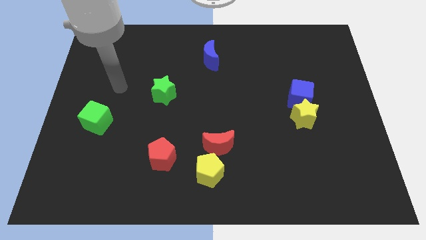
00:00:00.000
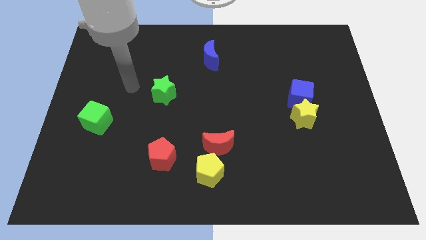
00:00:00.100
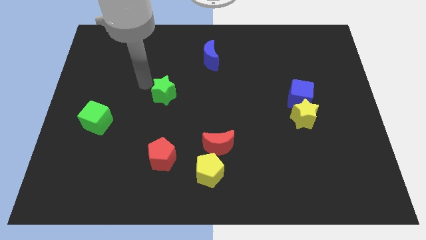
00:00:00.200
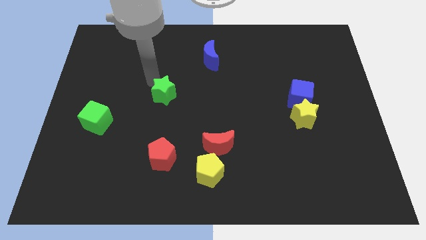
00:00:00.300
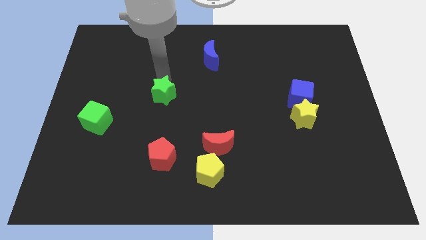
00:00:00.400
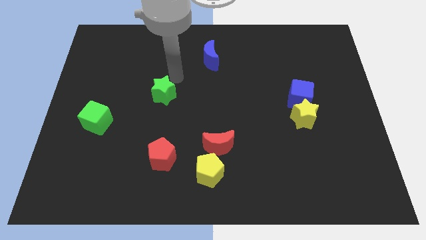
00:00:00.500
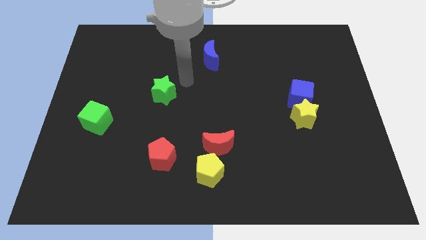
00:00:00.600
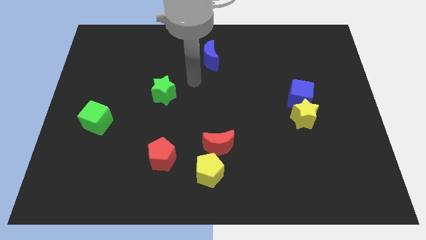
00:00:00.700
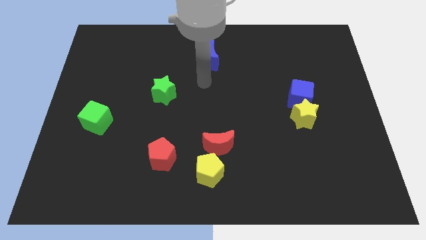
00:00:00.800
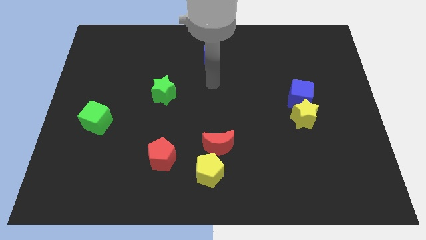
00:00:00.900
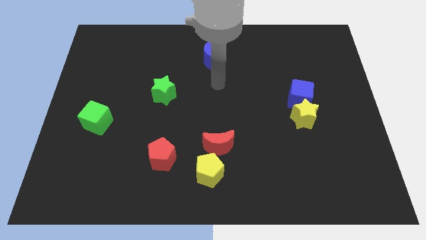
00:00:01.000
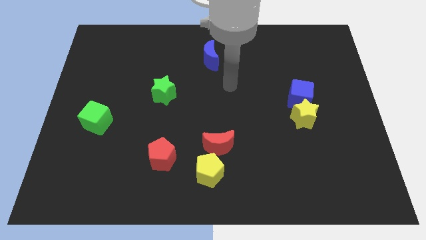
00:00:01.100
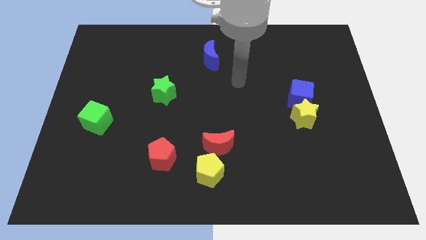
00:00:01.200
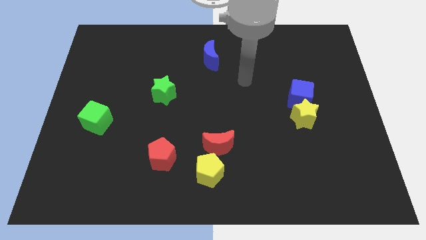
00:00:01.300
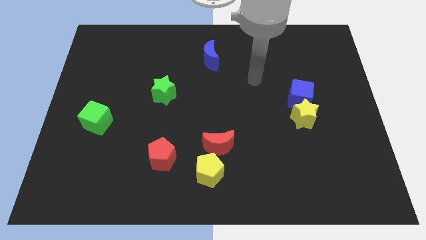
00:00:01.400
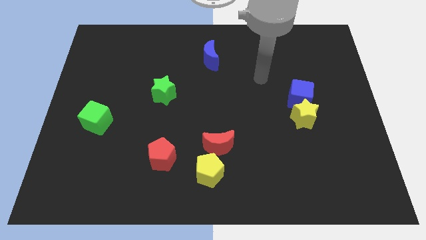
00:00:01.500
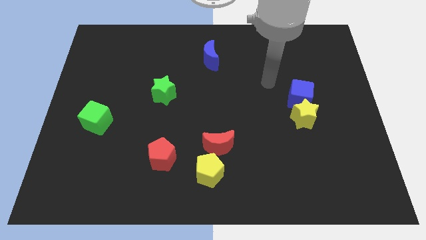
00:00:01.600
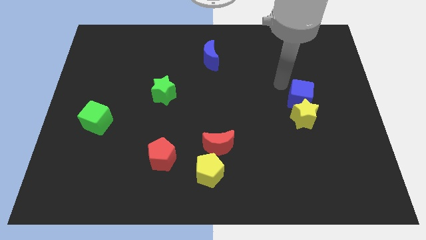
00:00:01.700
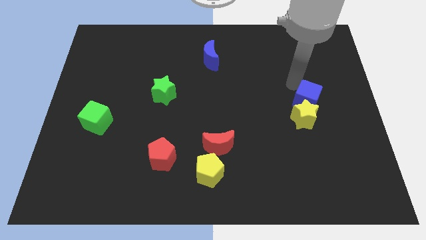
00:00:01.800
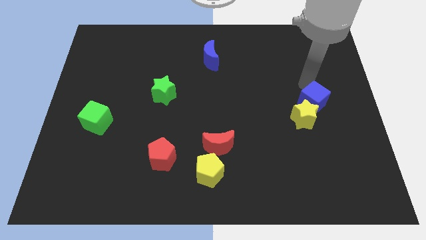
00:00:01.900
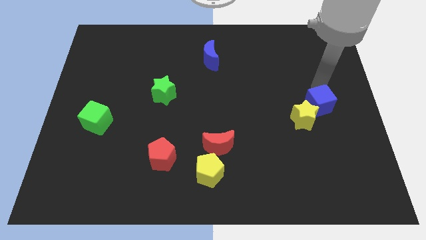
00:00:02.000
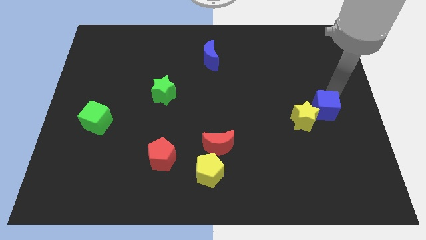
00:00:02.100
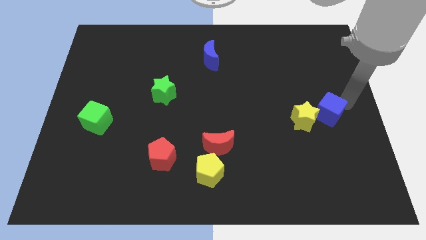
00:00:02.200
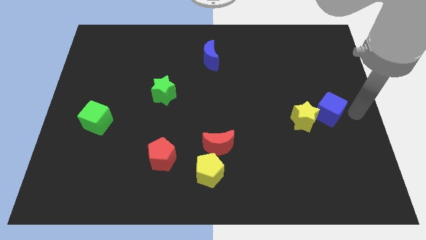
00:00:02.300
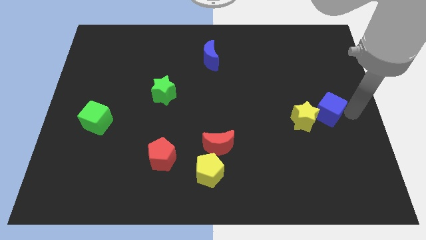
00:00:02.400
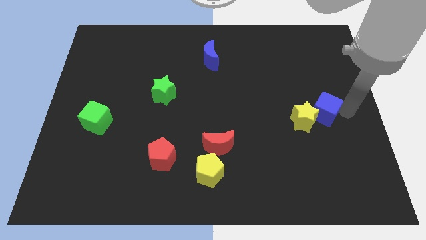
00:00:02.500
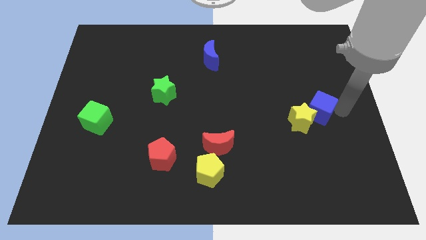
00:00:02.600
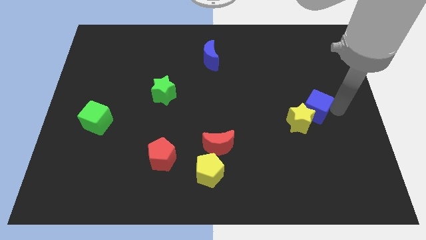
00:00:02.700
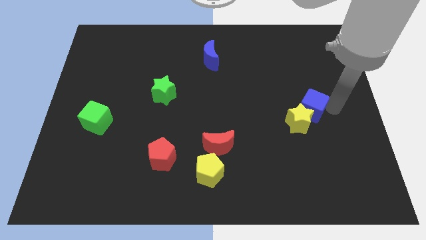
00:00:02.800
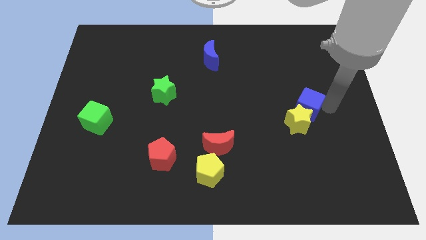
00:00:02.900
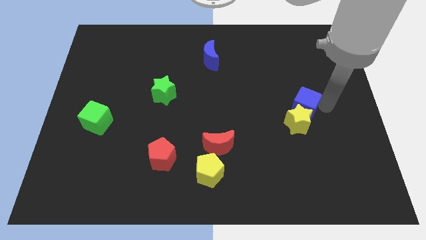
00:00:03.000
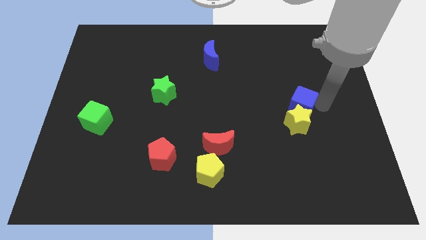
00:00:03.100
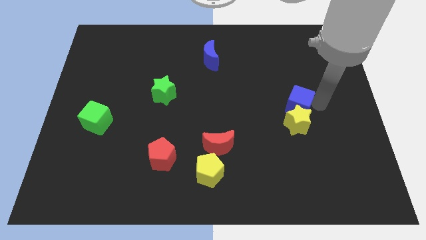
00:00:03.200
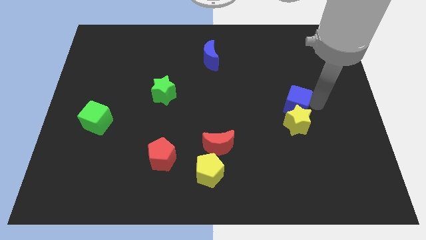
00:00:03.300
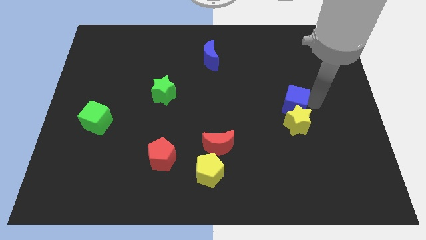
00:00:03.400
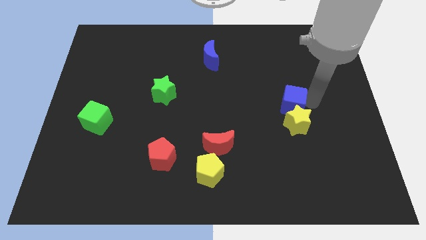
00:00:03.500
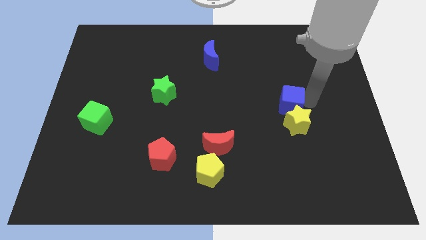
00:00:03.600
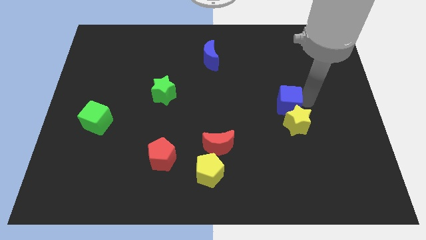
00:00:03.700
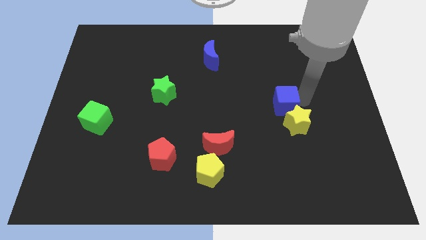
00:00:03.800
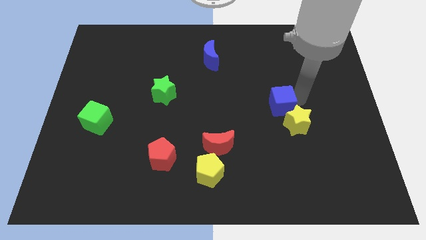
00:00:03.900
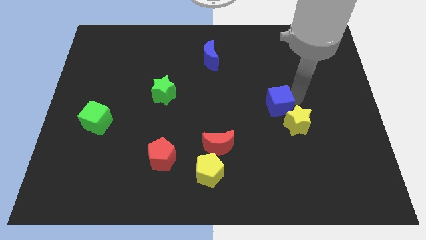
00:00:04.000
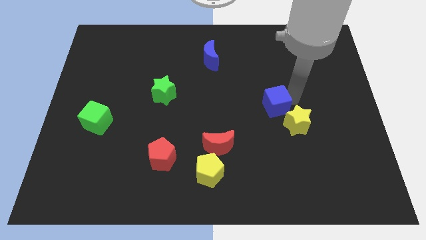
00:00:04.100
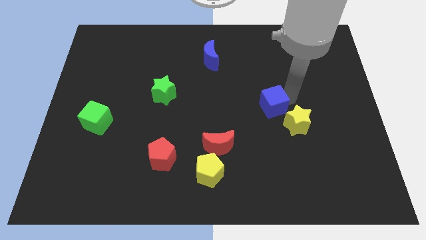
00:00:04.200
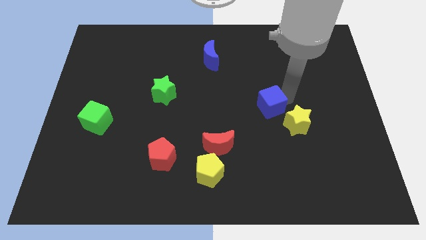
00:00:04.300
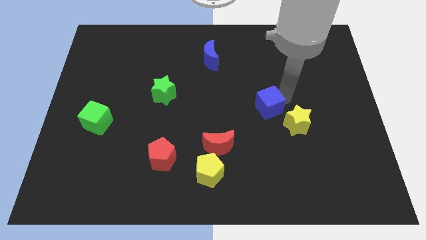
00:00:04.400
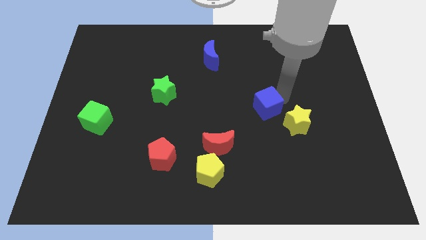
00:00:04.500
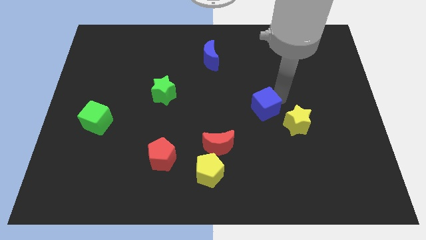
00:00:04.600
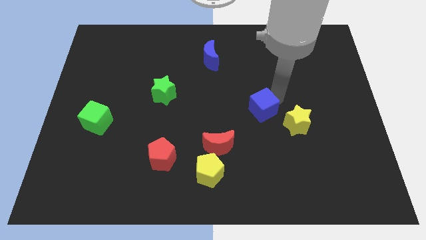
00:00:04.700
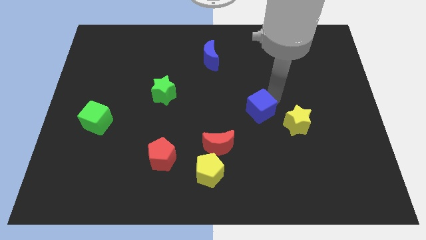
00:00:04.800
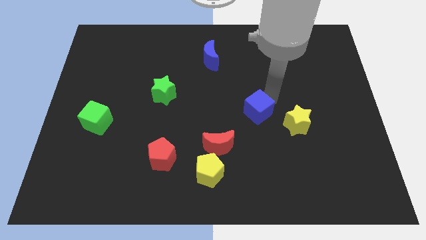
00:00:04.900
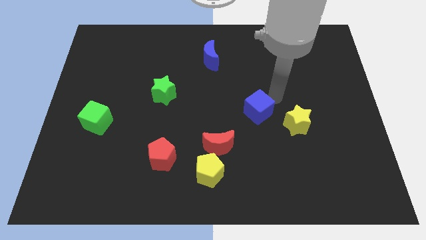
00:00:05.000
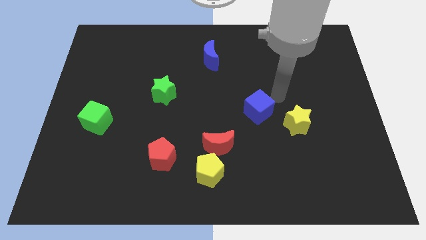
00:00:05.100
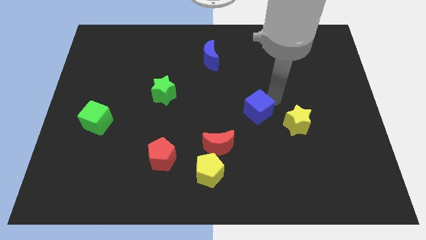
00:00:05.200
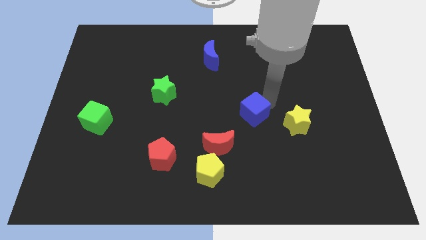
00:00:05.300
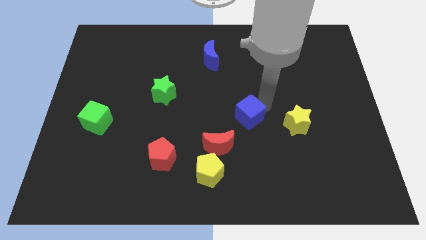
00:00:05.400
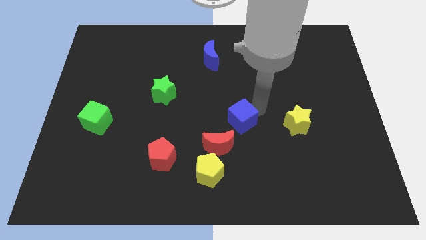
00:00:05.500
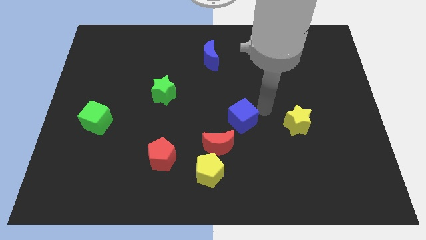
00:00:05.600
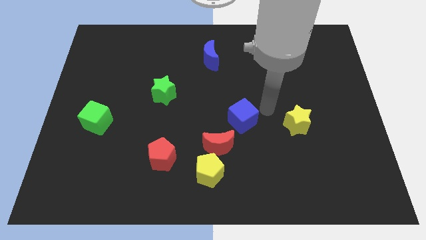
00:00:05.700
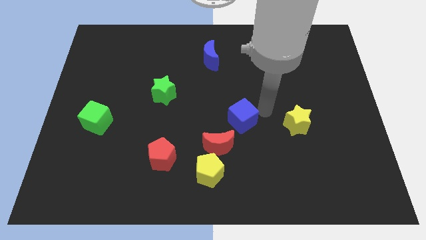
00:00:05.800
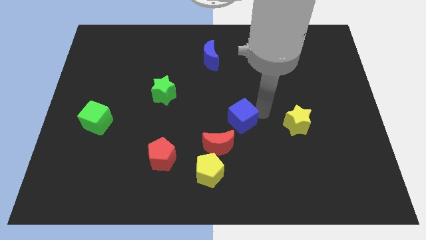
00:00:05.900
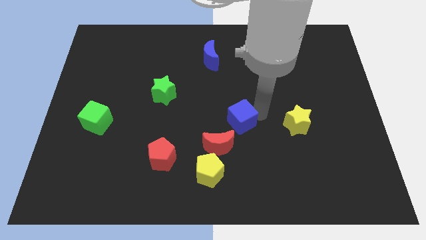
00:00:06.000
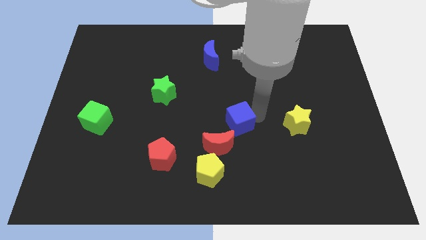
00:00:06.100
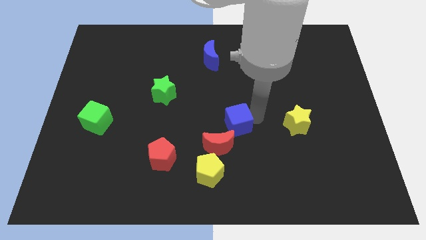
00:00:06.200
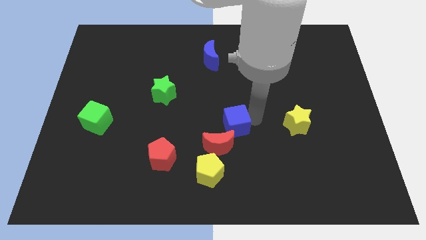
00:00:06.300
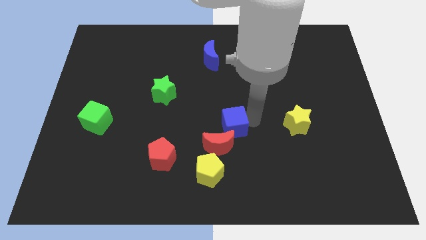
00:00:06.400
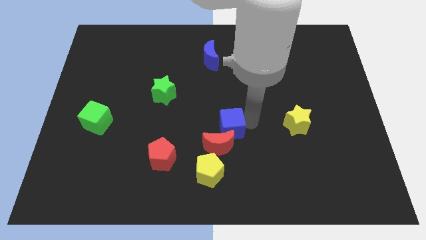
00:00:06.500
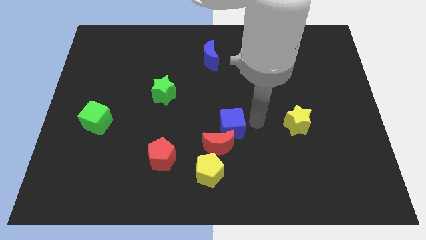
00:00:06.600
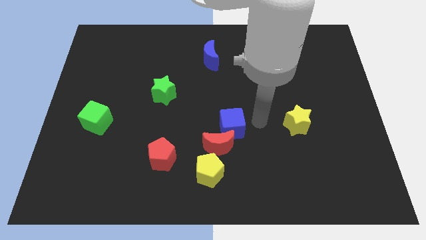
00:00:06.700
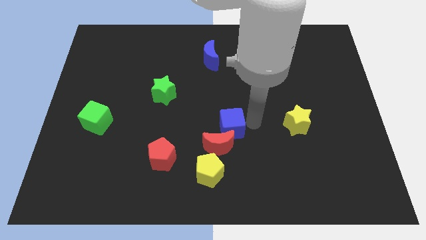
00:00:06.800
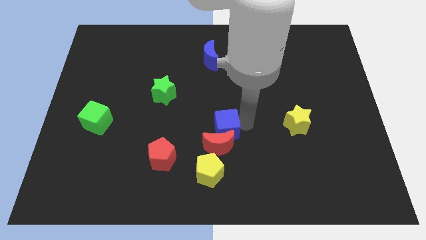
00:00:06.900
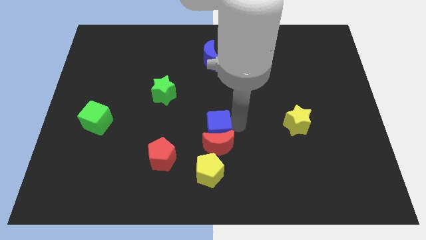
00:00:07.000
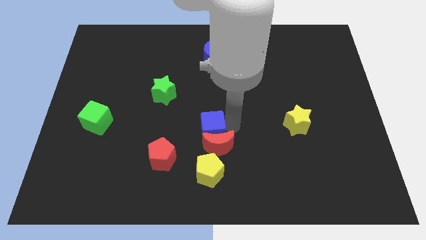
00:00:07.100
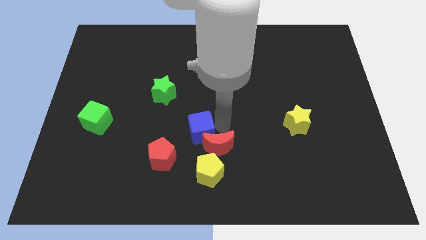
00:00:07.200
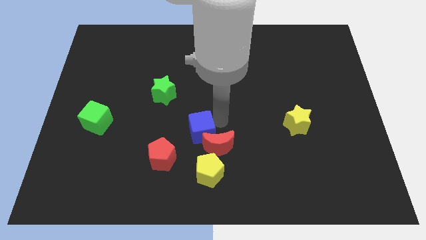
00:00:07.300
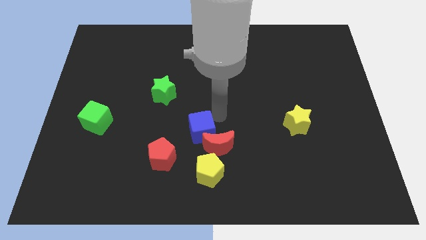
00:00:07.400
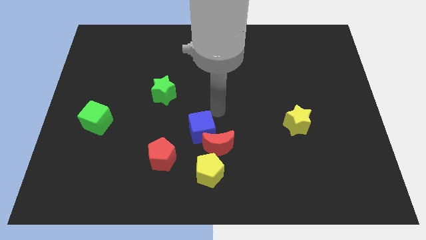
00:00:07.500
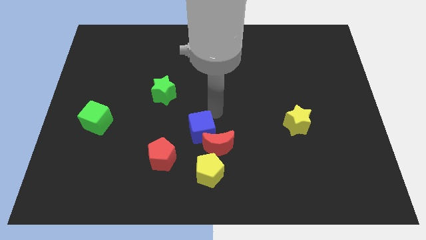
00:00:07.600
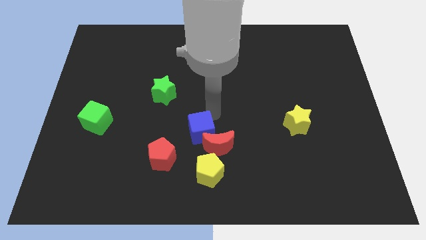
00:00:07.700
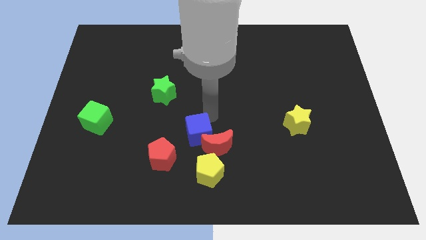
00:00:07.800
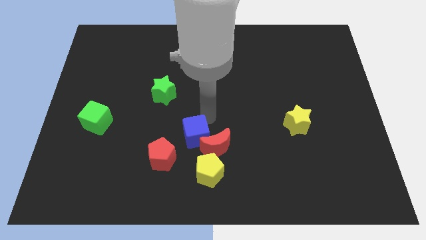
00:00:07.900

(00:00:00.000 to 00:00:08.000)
put the blue cube to the top left side of the yellow pentagon
